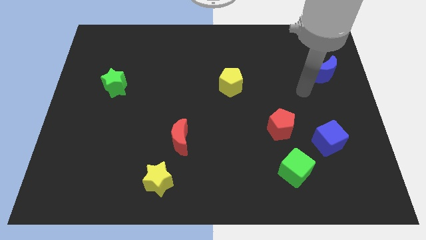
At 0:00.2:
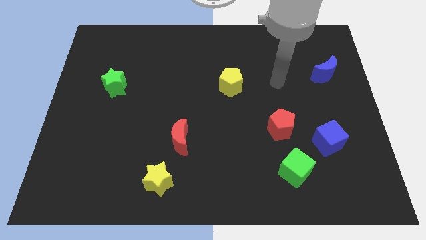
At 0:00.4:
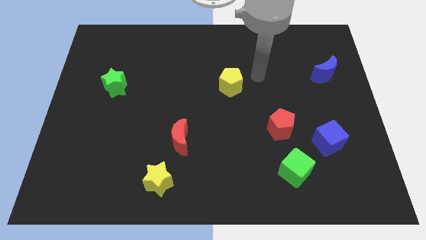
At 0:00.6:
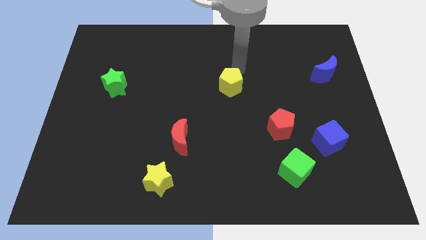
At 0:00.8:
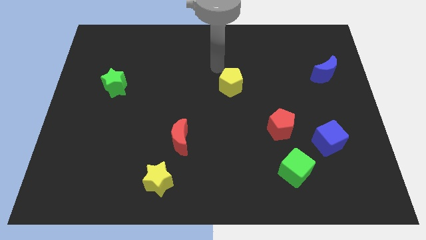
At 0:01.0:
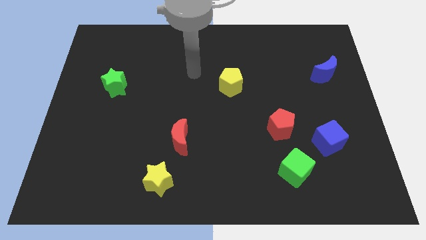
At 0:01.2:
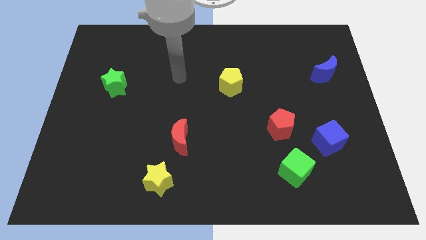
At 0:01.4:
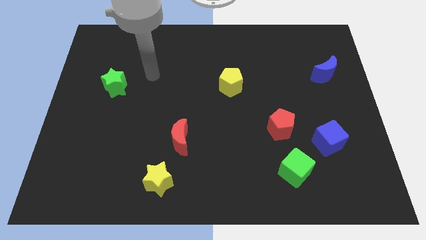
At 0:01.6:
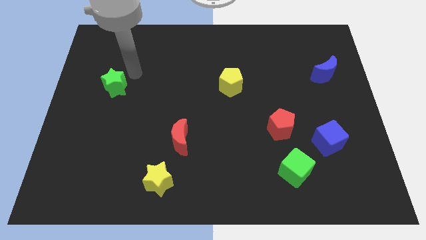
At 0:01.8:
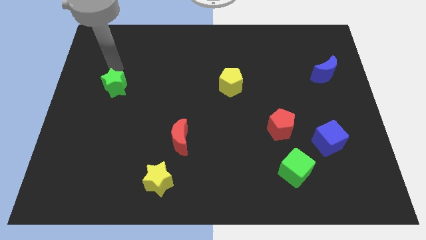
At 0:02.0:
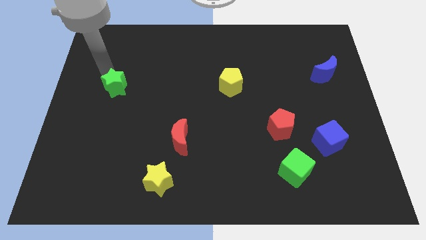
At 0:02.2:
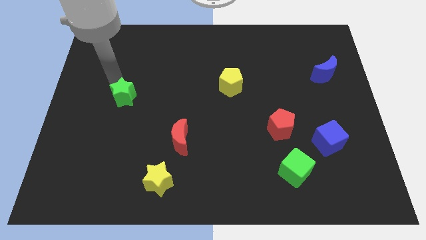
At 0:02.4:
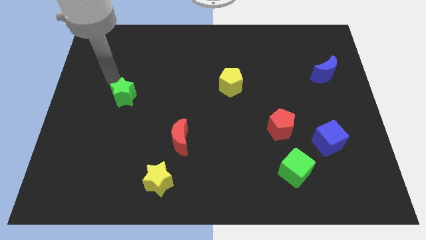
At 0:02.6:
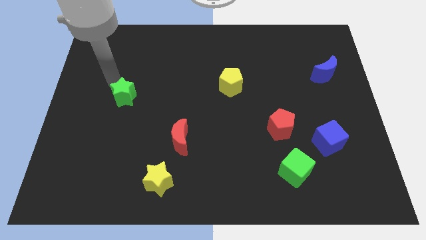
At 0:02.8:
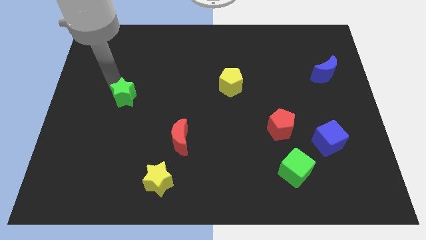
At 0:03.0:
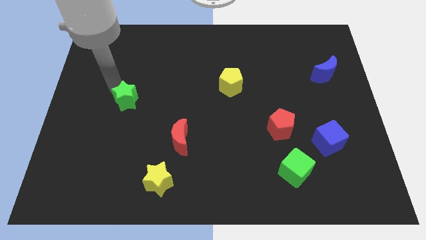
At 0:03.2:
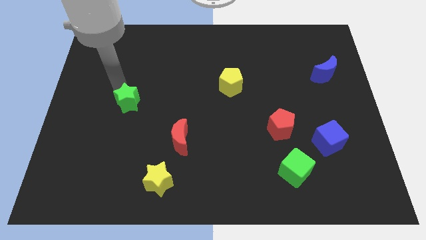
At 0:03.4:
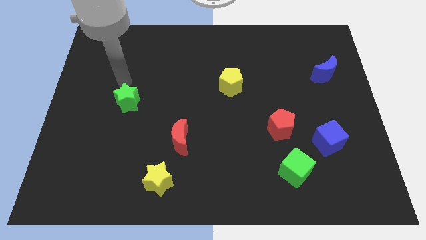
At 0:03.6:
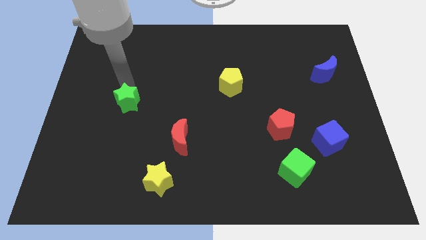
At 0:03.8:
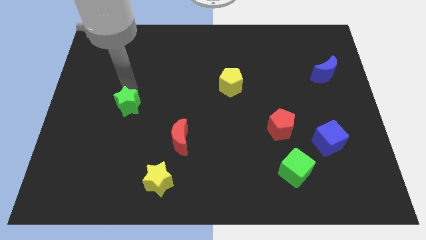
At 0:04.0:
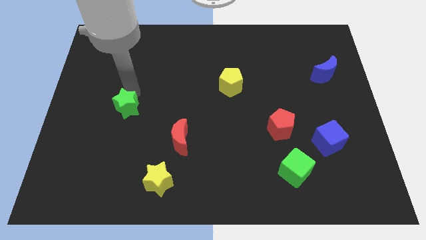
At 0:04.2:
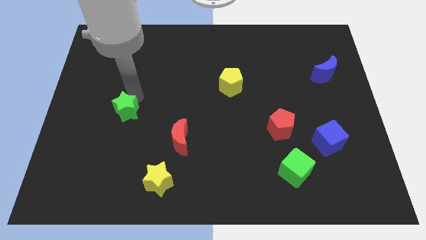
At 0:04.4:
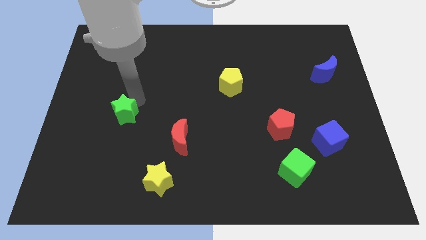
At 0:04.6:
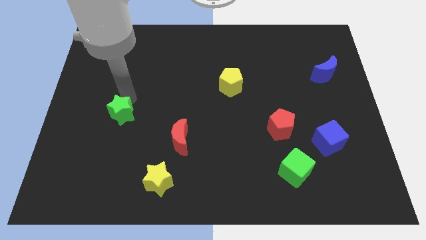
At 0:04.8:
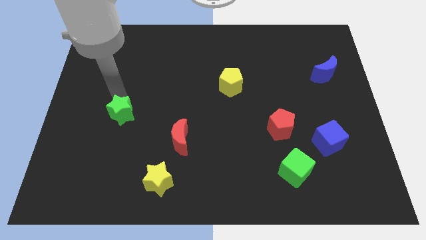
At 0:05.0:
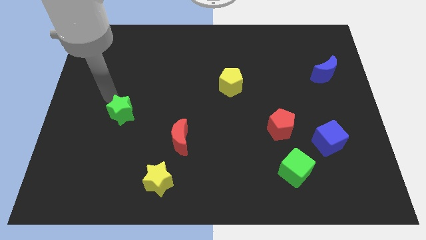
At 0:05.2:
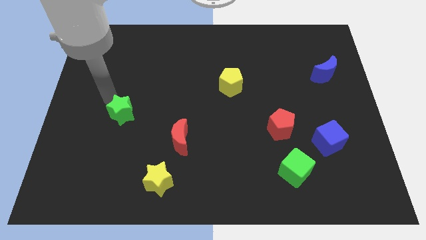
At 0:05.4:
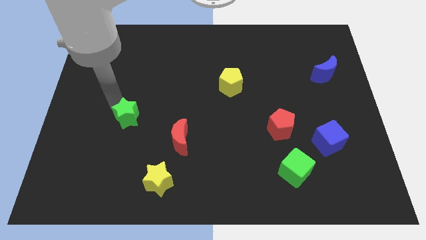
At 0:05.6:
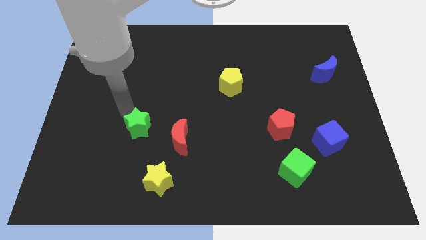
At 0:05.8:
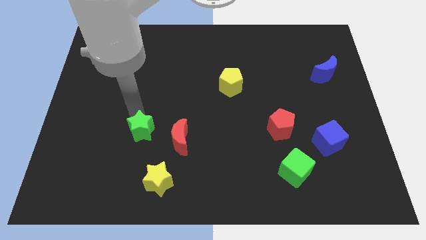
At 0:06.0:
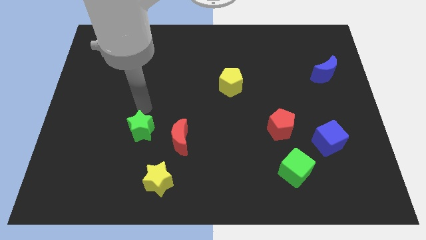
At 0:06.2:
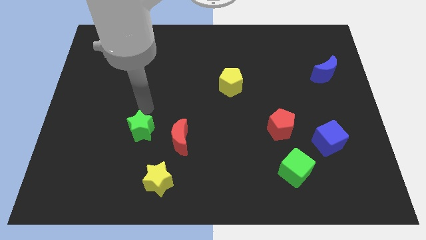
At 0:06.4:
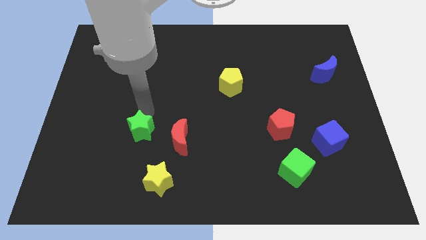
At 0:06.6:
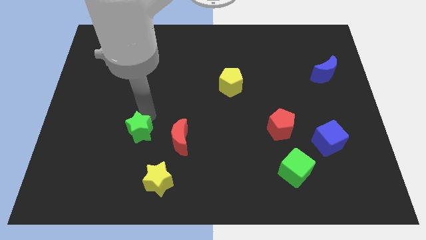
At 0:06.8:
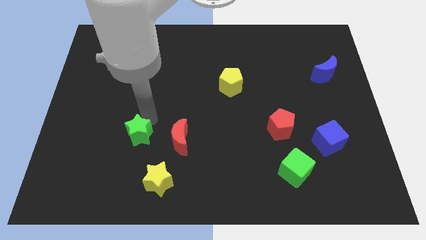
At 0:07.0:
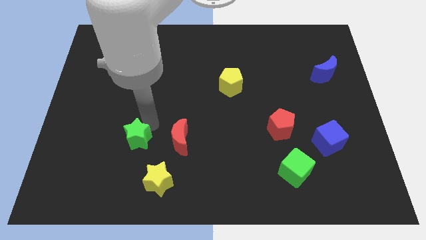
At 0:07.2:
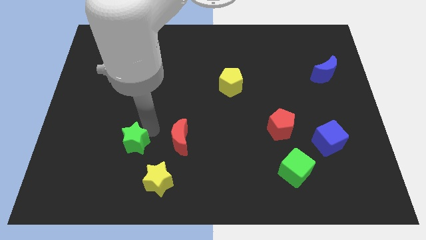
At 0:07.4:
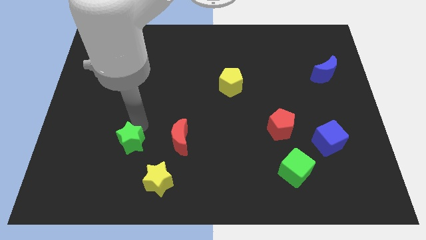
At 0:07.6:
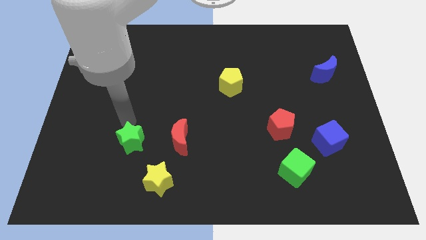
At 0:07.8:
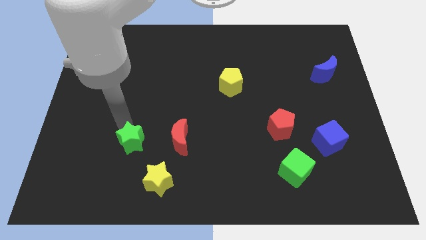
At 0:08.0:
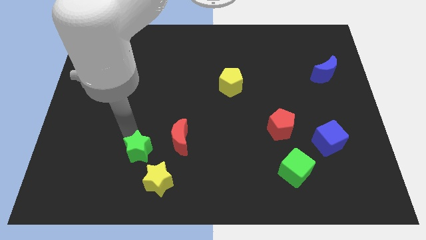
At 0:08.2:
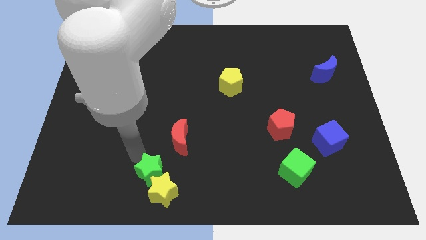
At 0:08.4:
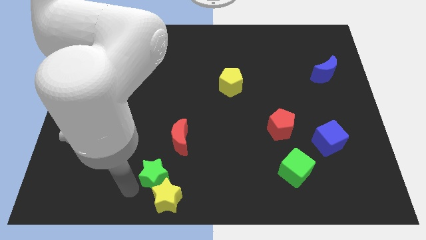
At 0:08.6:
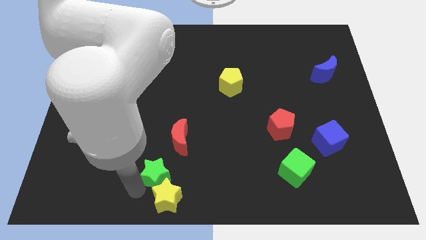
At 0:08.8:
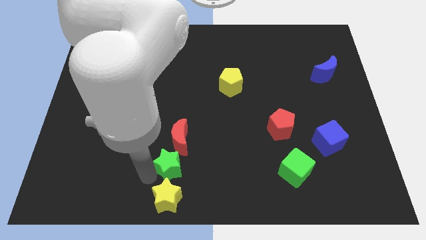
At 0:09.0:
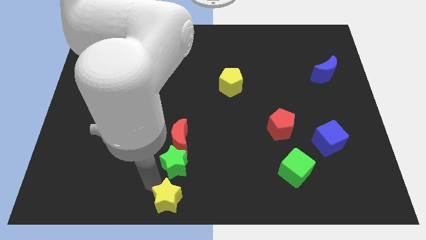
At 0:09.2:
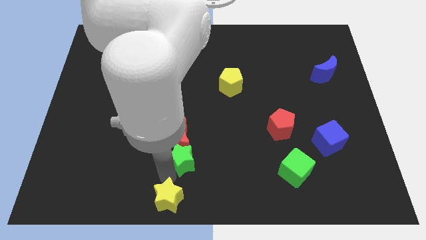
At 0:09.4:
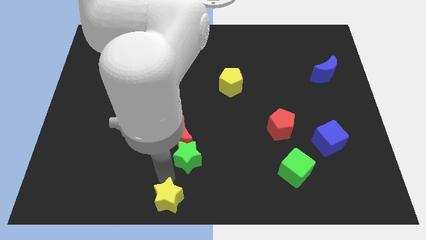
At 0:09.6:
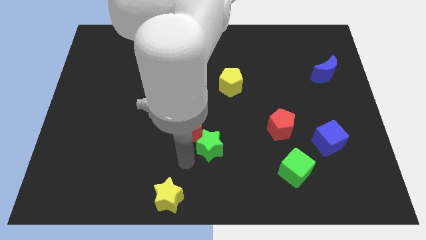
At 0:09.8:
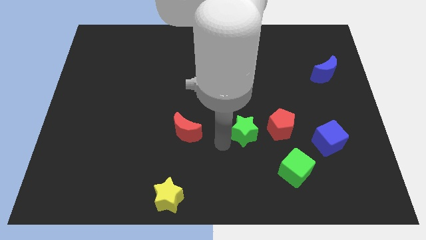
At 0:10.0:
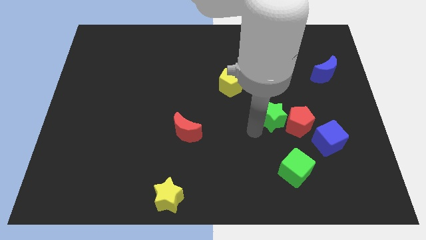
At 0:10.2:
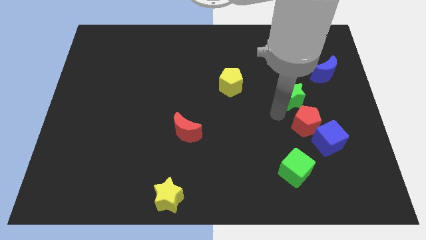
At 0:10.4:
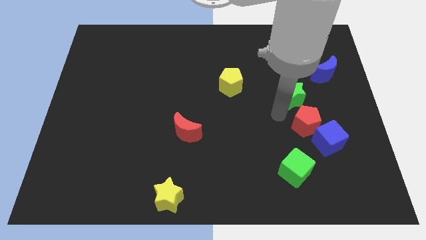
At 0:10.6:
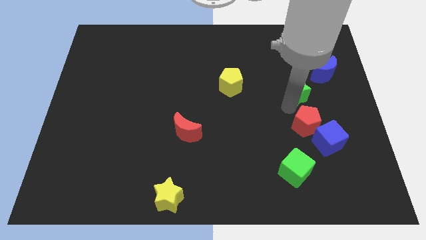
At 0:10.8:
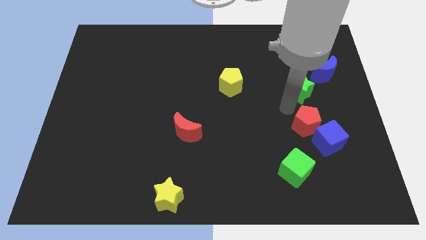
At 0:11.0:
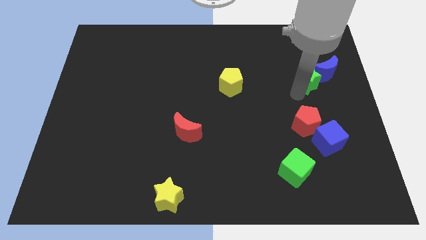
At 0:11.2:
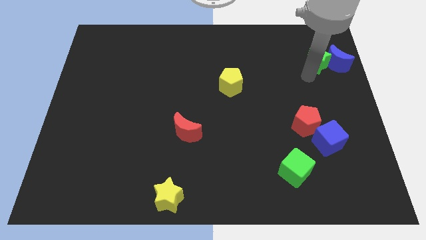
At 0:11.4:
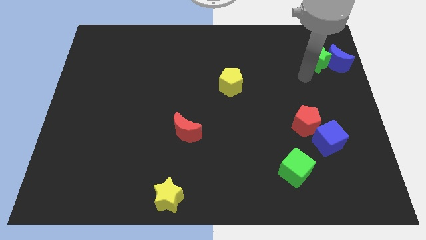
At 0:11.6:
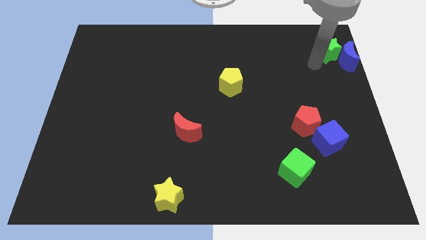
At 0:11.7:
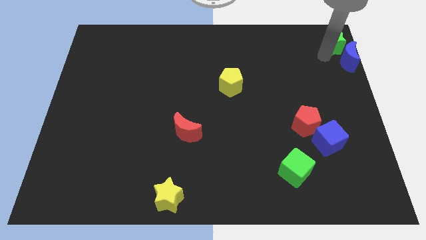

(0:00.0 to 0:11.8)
put the green star to the top right
